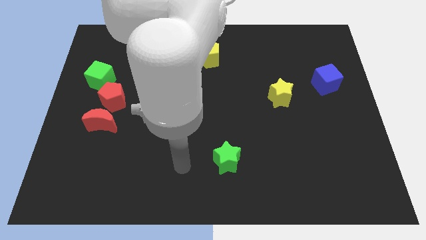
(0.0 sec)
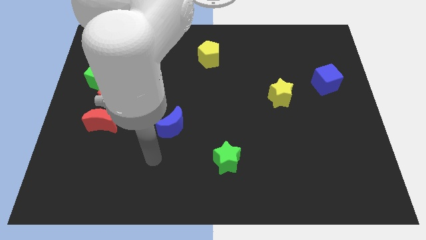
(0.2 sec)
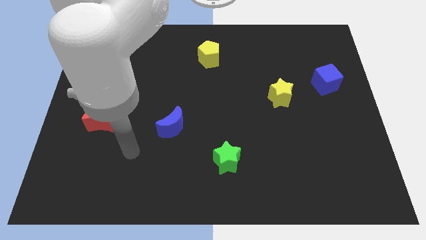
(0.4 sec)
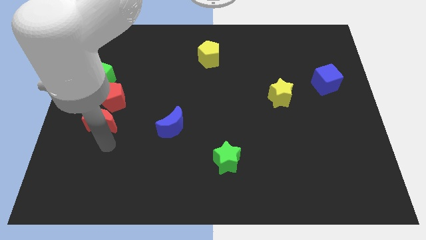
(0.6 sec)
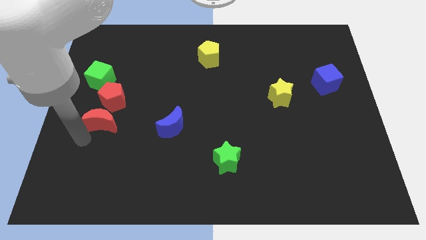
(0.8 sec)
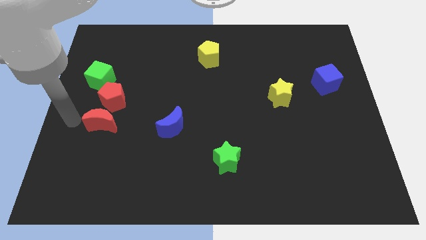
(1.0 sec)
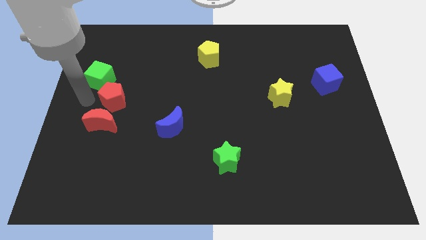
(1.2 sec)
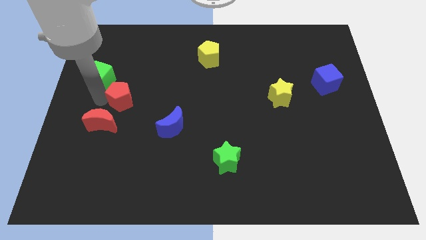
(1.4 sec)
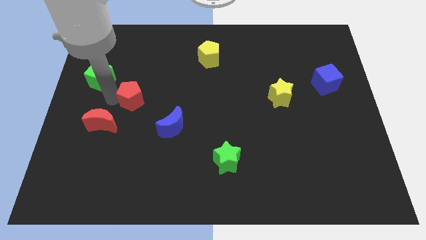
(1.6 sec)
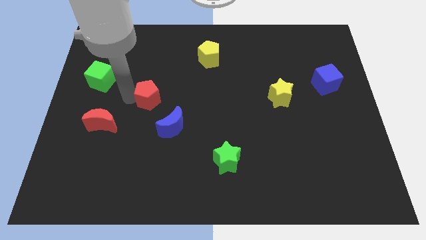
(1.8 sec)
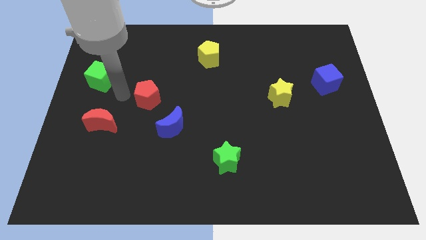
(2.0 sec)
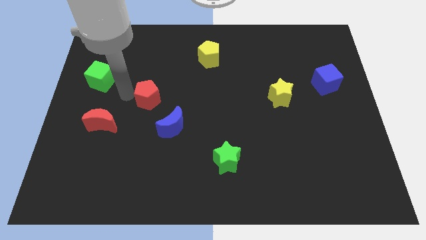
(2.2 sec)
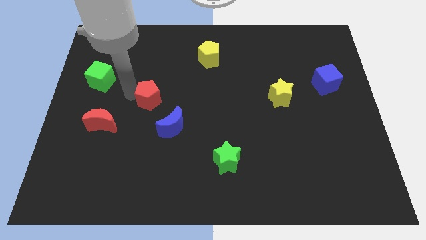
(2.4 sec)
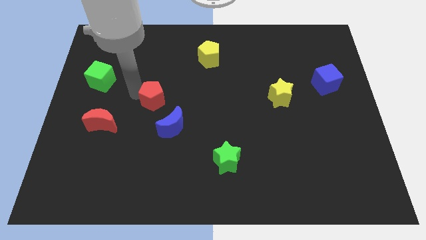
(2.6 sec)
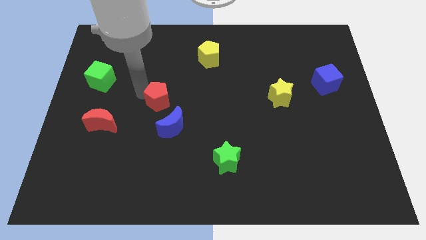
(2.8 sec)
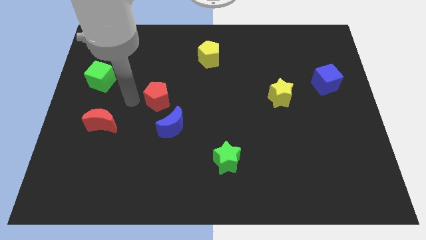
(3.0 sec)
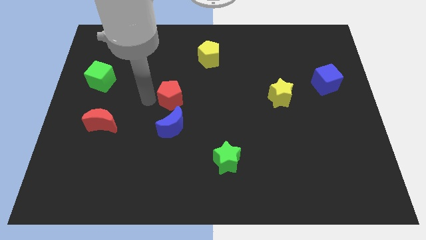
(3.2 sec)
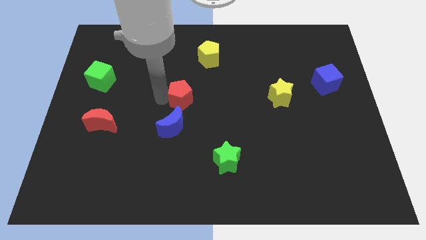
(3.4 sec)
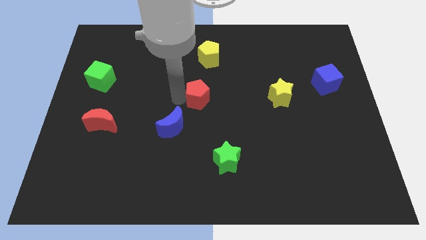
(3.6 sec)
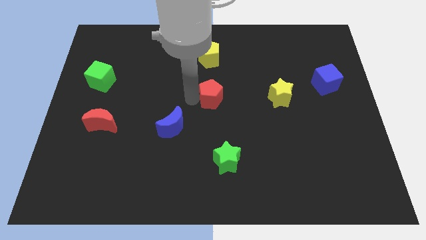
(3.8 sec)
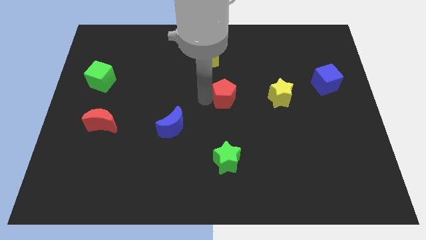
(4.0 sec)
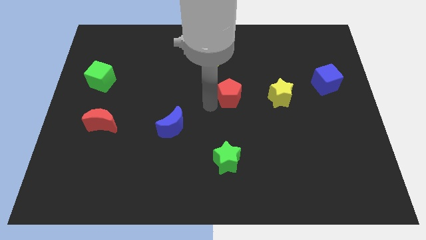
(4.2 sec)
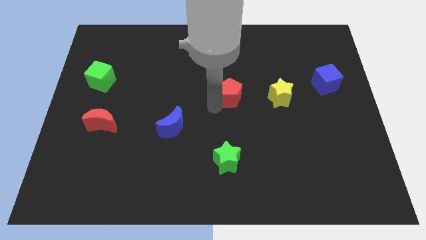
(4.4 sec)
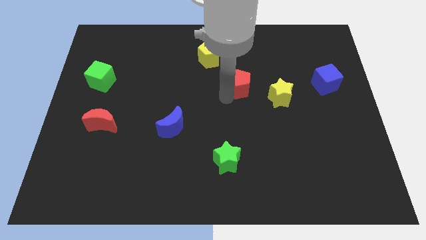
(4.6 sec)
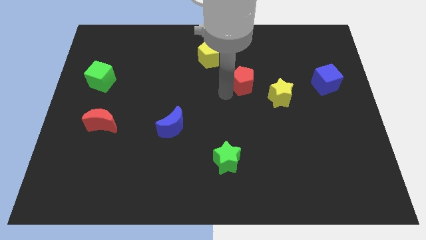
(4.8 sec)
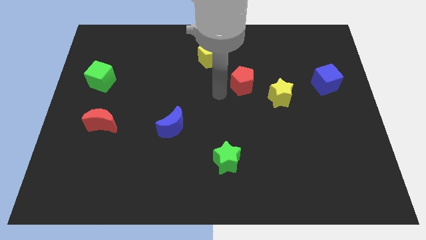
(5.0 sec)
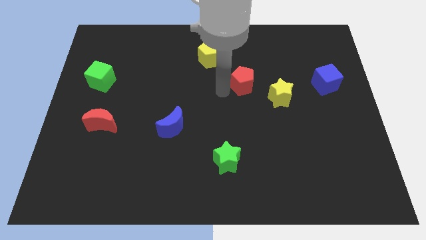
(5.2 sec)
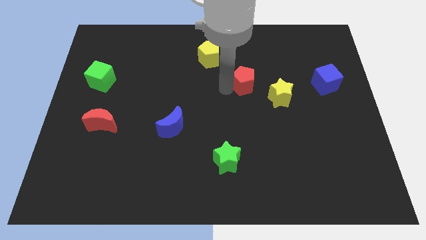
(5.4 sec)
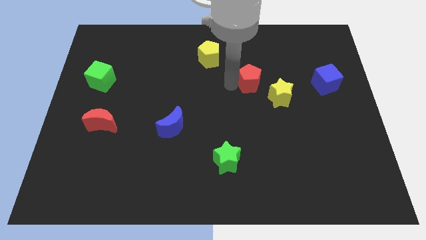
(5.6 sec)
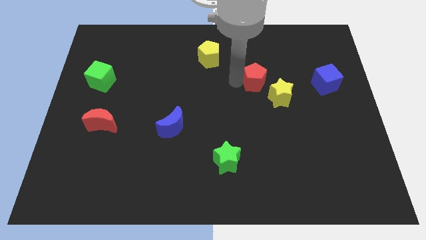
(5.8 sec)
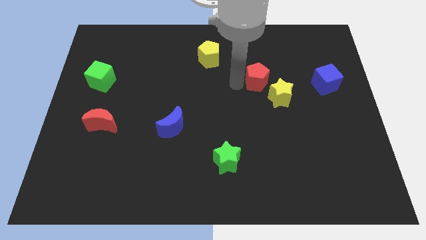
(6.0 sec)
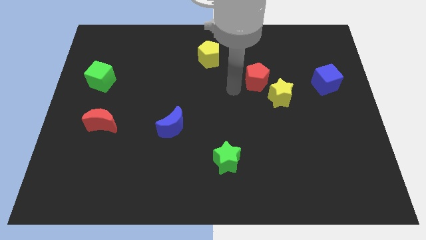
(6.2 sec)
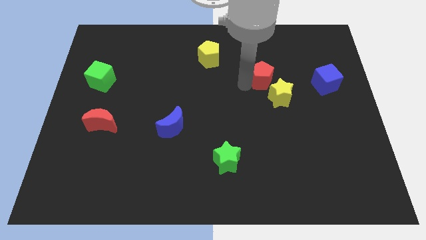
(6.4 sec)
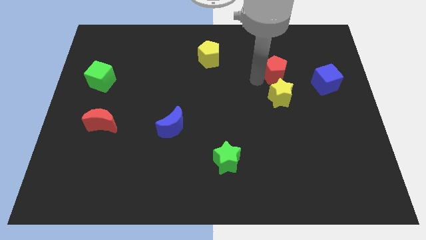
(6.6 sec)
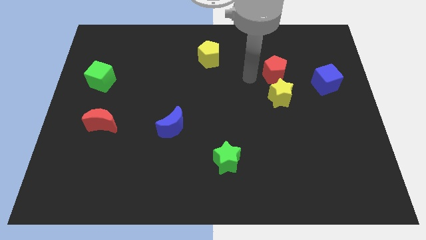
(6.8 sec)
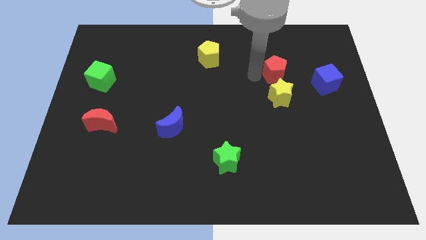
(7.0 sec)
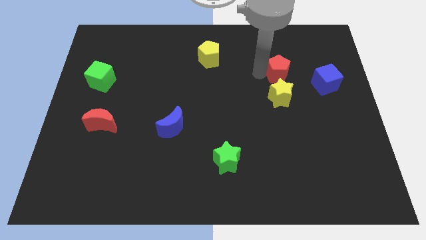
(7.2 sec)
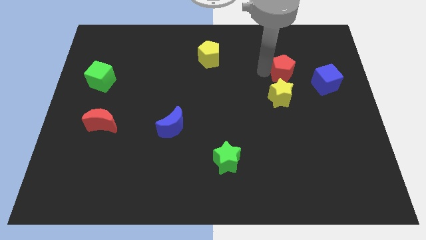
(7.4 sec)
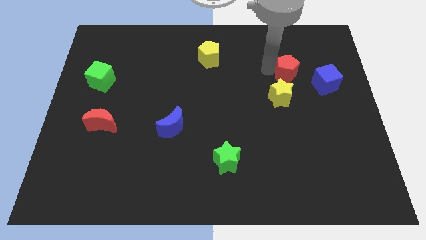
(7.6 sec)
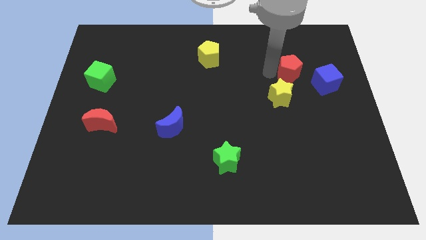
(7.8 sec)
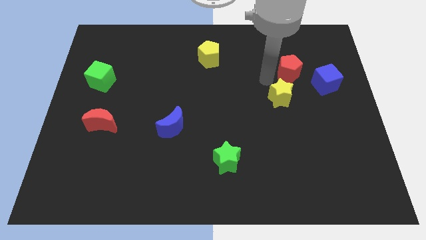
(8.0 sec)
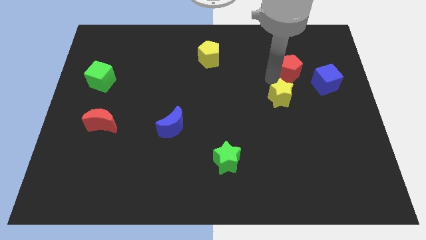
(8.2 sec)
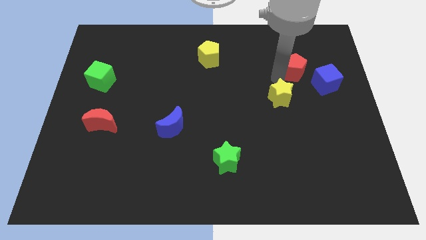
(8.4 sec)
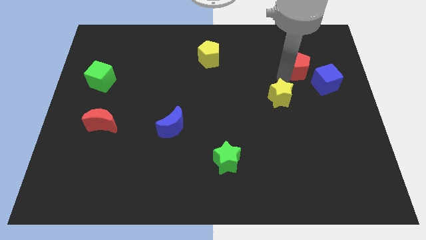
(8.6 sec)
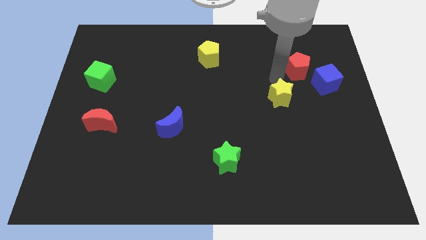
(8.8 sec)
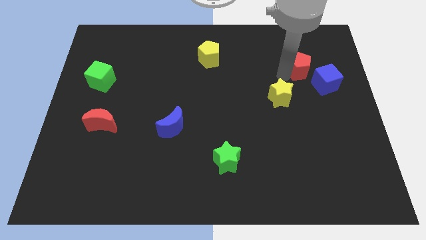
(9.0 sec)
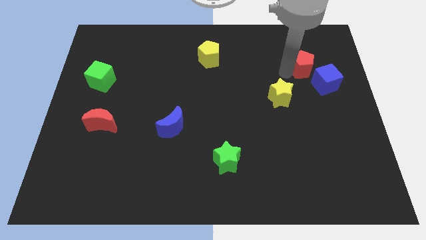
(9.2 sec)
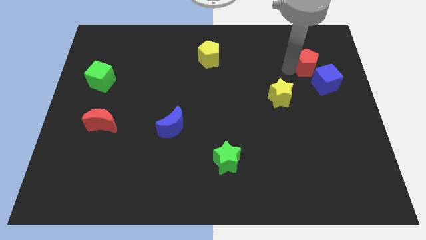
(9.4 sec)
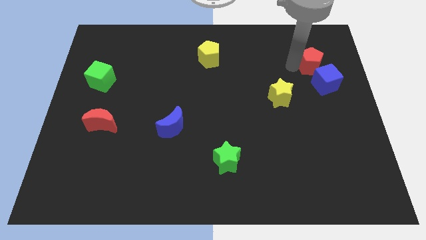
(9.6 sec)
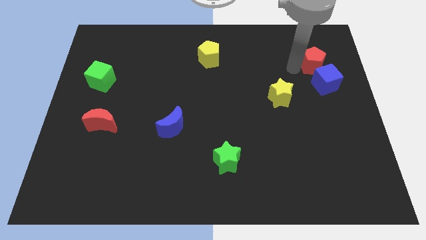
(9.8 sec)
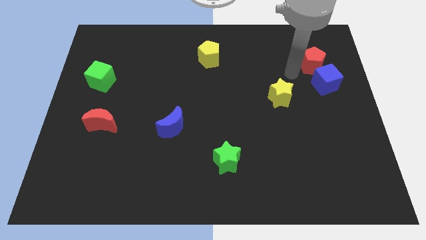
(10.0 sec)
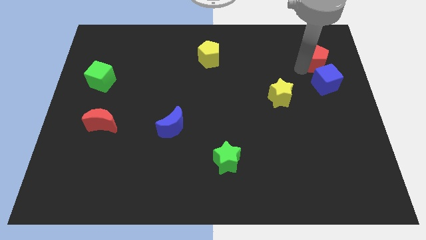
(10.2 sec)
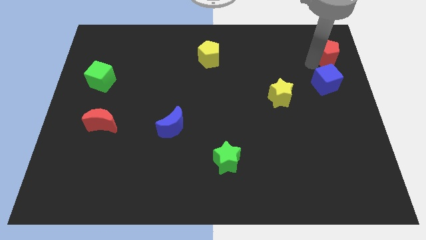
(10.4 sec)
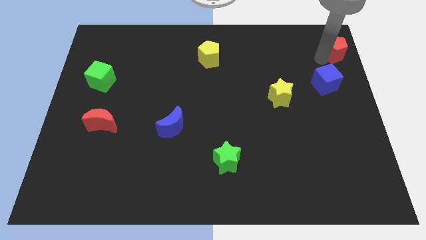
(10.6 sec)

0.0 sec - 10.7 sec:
move the red pentagon to the top right of the board
